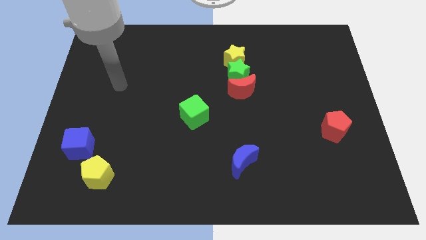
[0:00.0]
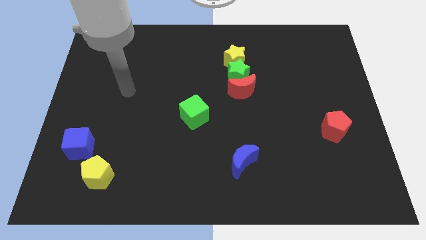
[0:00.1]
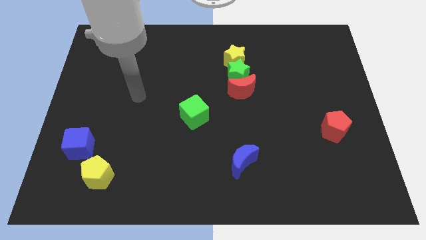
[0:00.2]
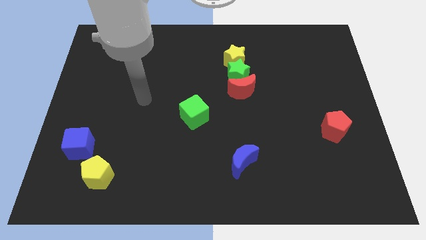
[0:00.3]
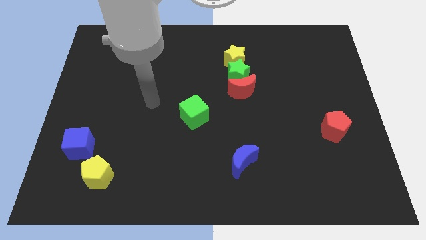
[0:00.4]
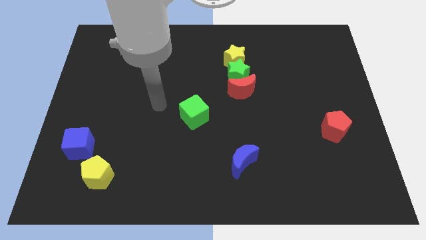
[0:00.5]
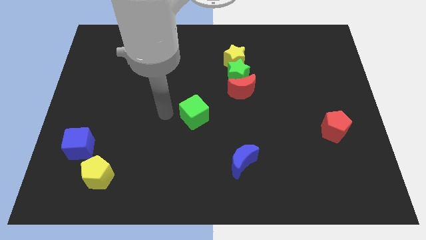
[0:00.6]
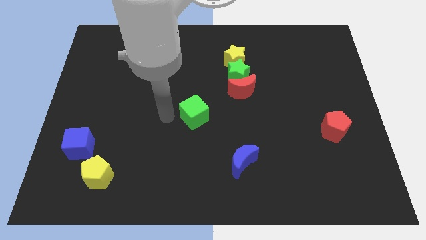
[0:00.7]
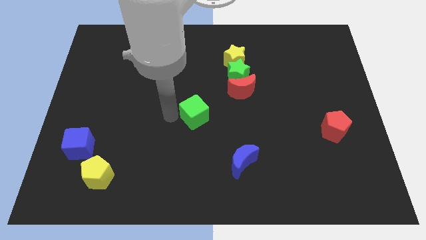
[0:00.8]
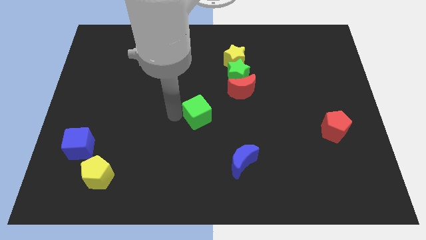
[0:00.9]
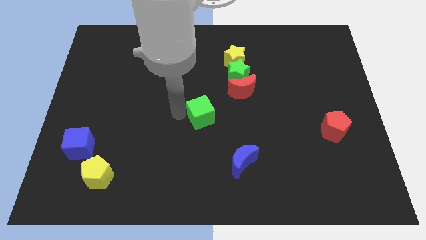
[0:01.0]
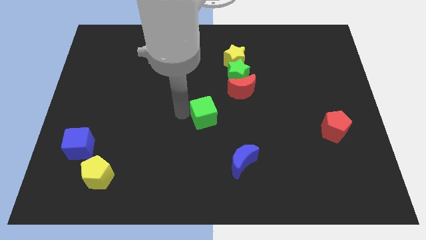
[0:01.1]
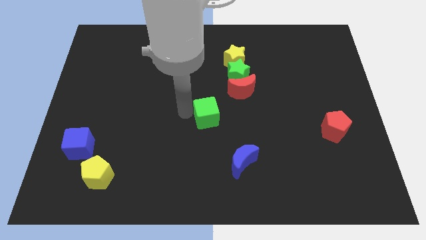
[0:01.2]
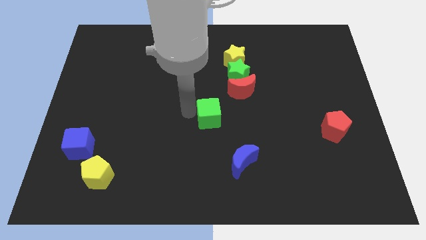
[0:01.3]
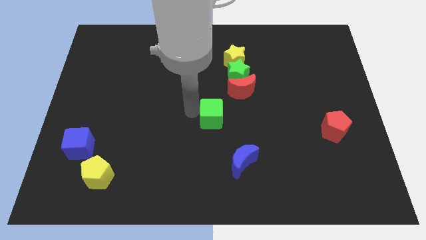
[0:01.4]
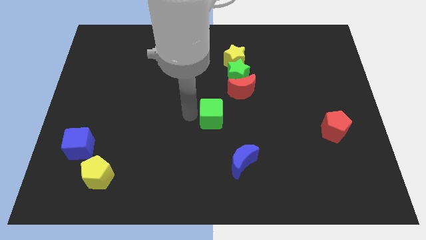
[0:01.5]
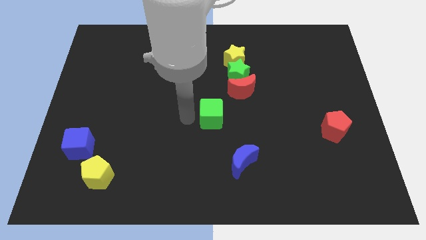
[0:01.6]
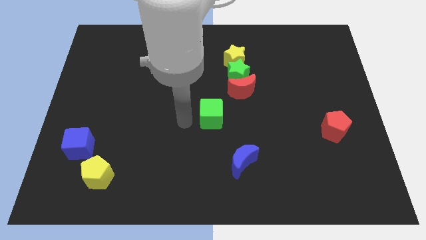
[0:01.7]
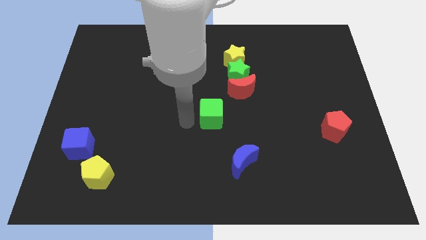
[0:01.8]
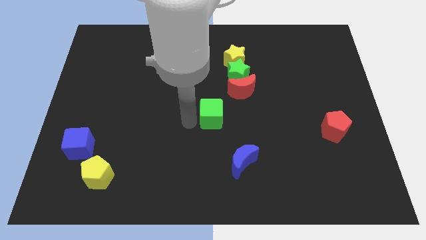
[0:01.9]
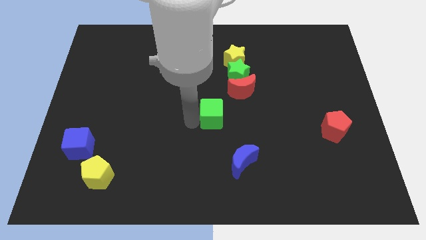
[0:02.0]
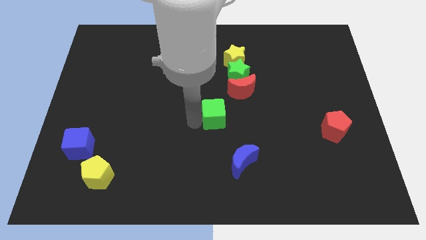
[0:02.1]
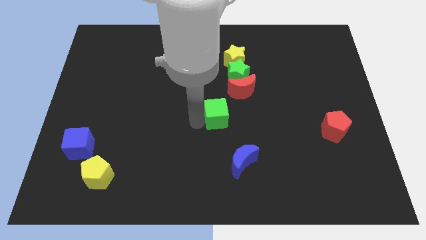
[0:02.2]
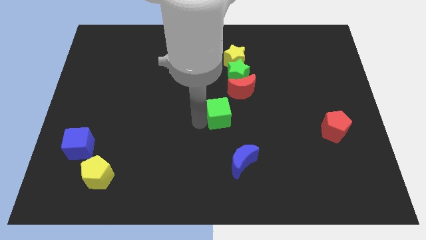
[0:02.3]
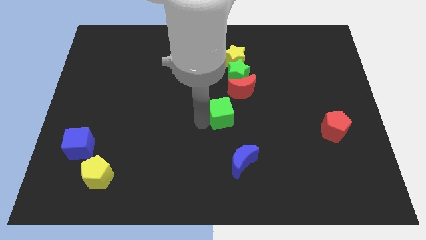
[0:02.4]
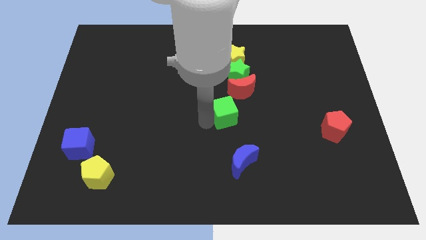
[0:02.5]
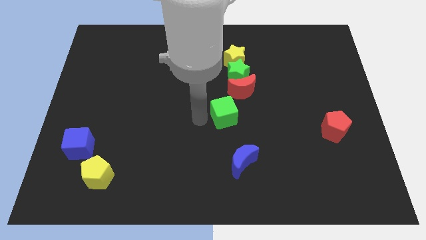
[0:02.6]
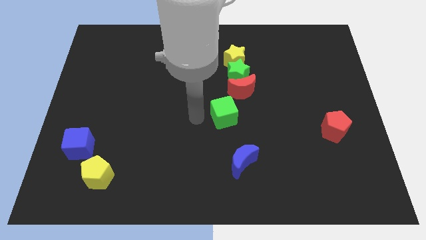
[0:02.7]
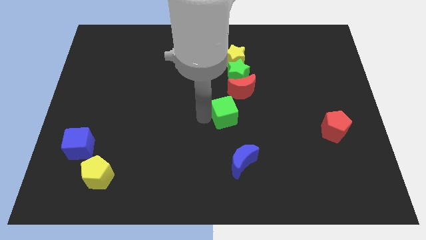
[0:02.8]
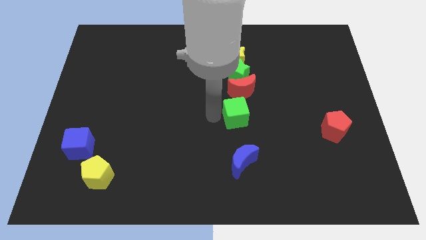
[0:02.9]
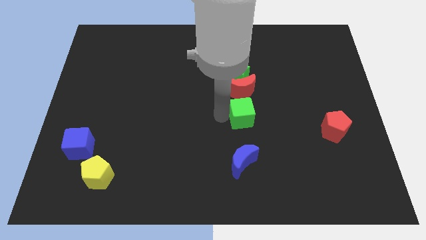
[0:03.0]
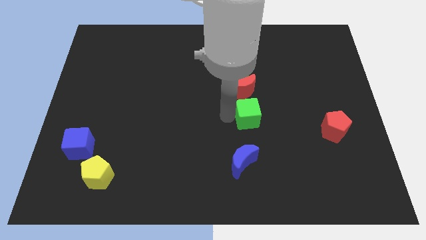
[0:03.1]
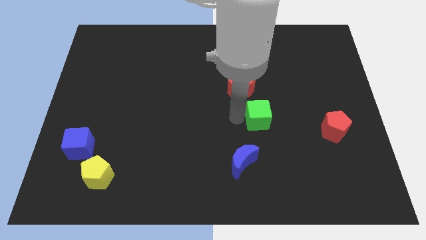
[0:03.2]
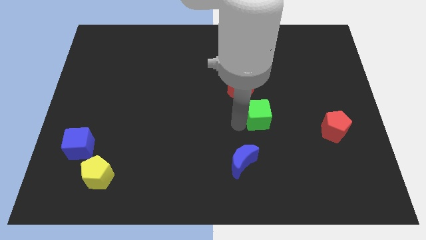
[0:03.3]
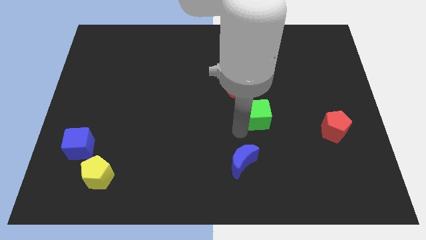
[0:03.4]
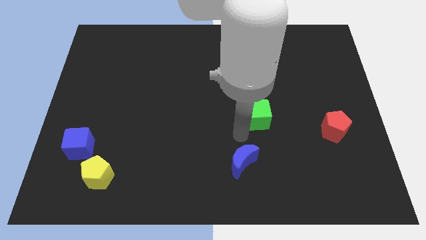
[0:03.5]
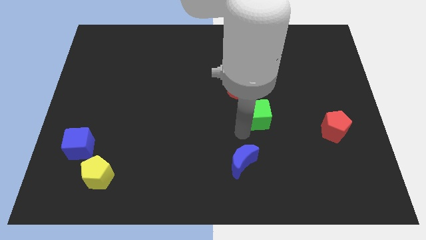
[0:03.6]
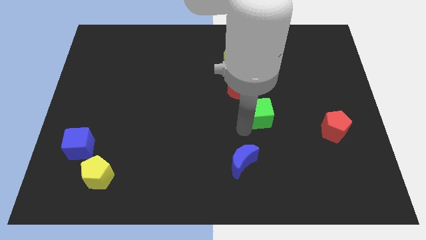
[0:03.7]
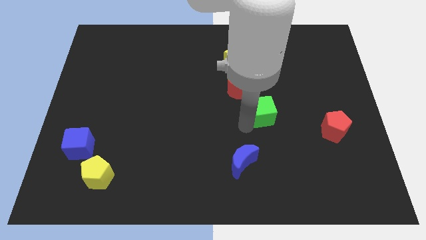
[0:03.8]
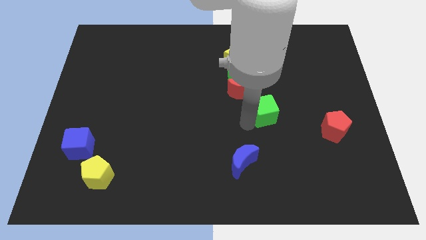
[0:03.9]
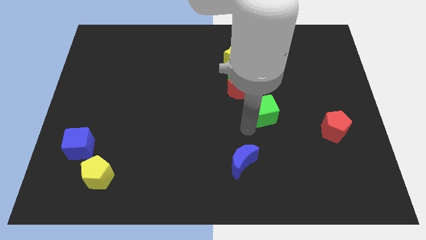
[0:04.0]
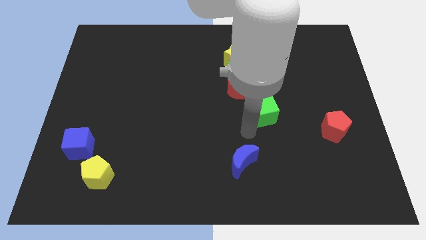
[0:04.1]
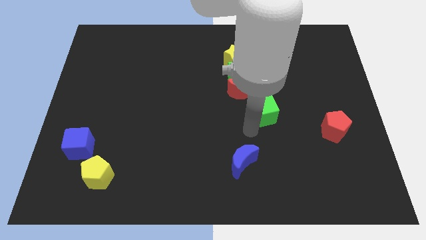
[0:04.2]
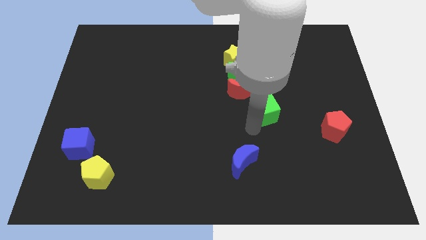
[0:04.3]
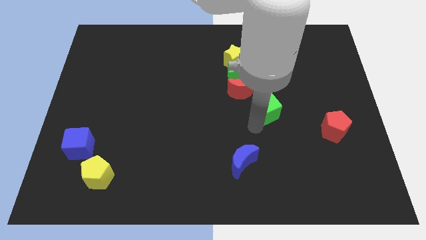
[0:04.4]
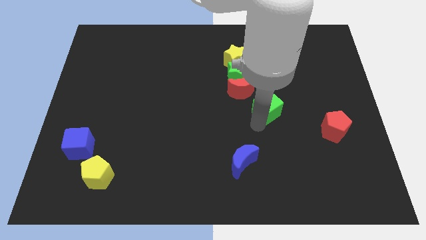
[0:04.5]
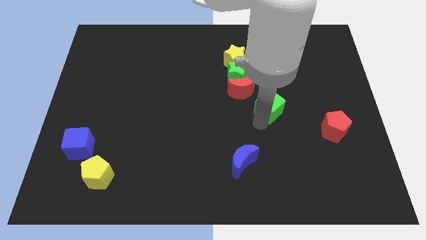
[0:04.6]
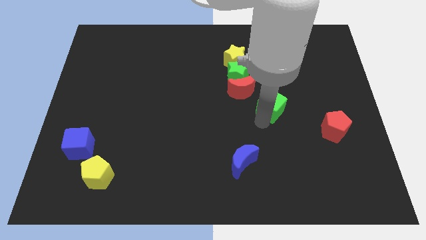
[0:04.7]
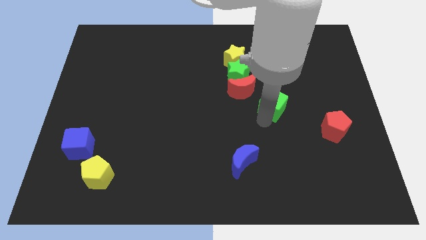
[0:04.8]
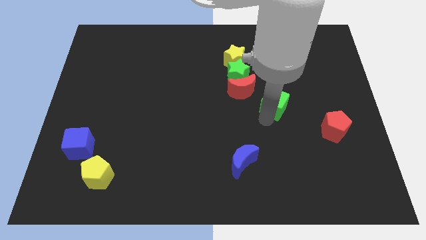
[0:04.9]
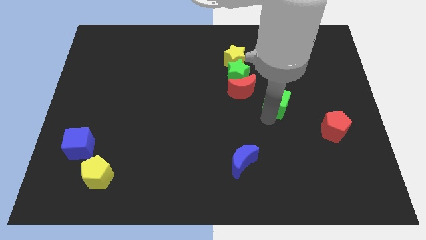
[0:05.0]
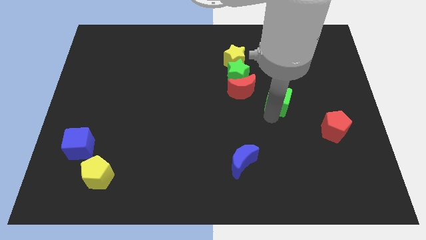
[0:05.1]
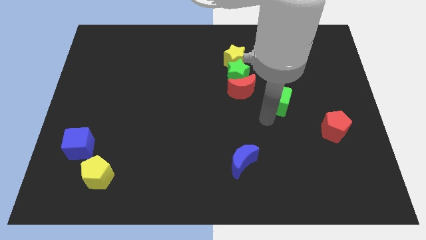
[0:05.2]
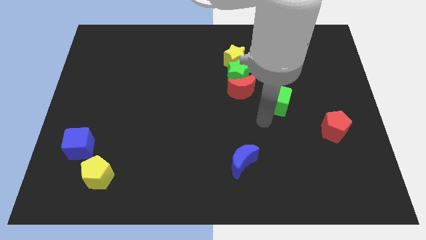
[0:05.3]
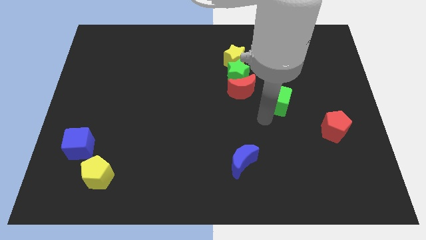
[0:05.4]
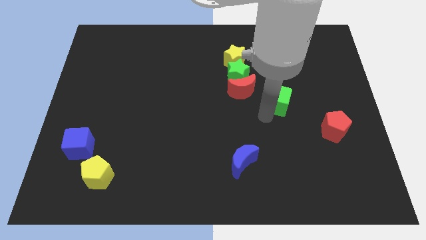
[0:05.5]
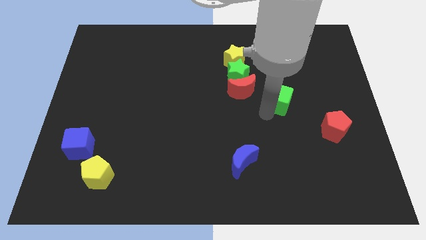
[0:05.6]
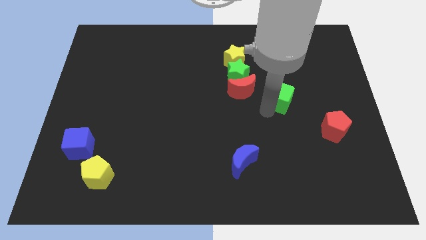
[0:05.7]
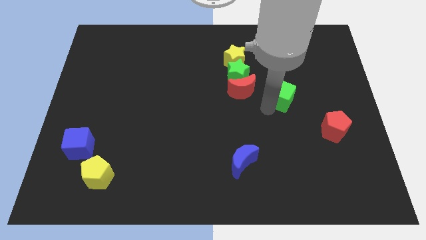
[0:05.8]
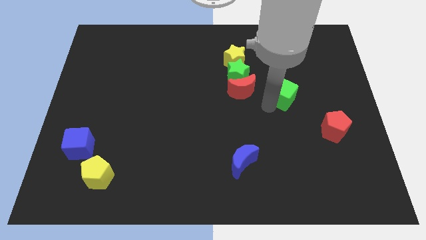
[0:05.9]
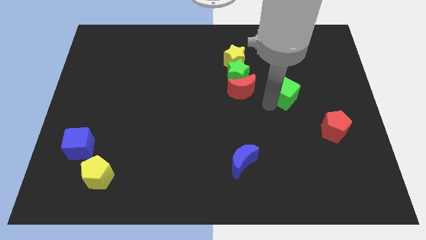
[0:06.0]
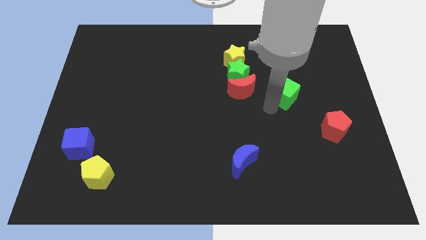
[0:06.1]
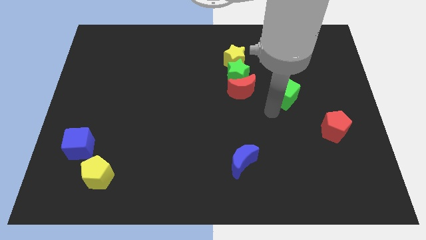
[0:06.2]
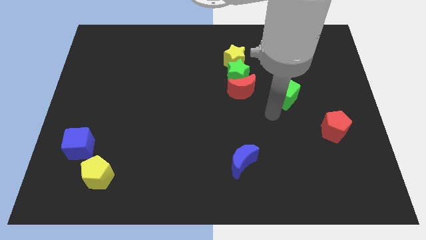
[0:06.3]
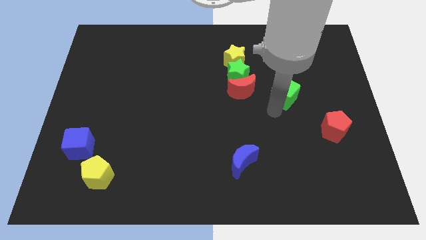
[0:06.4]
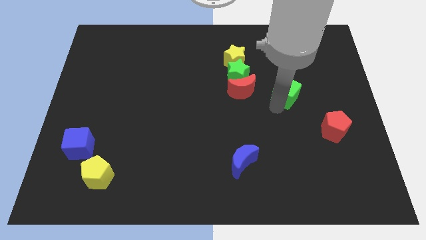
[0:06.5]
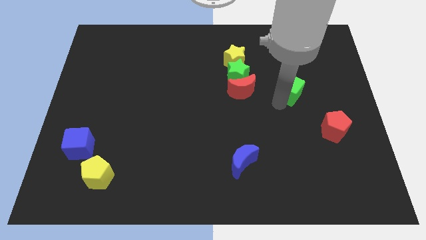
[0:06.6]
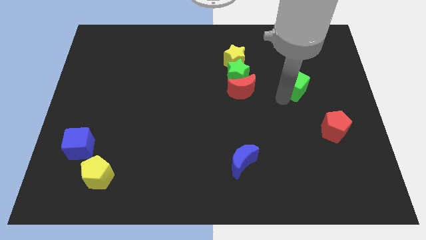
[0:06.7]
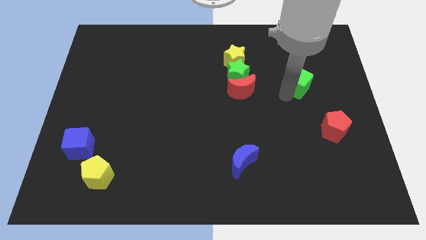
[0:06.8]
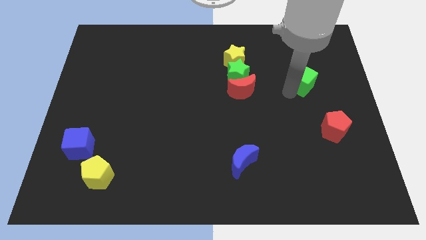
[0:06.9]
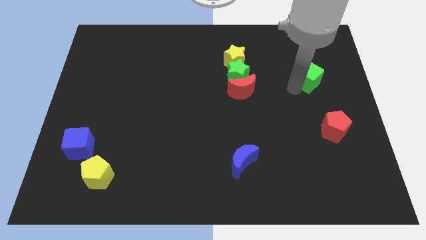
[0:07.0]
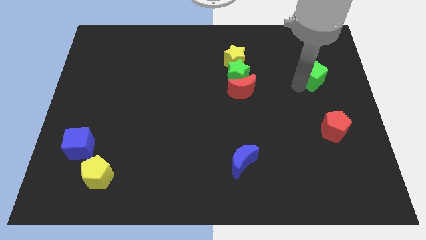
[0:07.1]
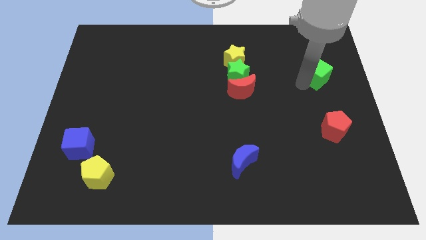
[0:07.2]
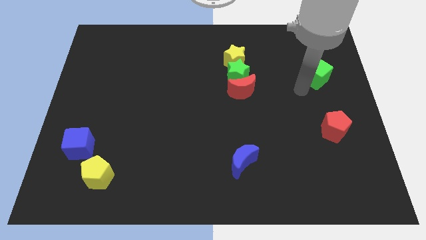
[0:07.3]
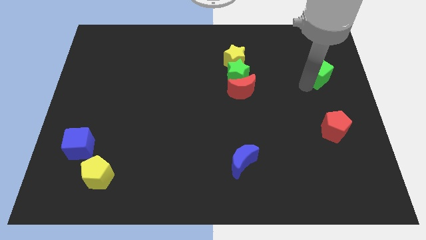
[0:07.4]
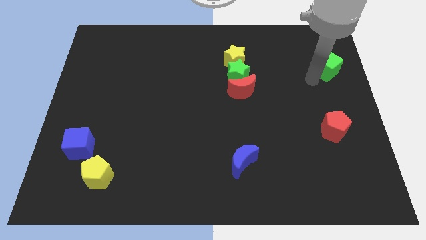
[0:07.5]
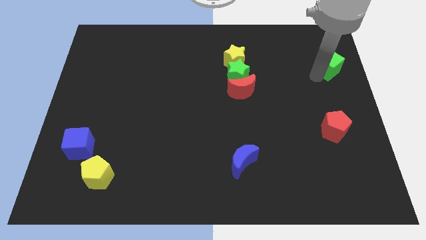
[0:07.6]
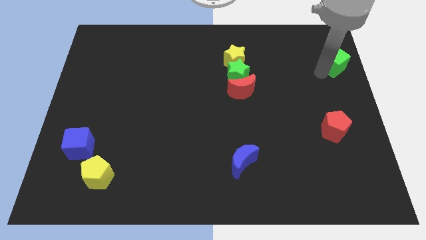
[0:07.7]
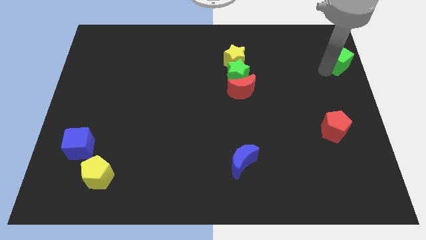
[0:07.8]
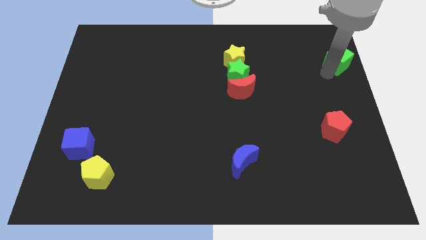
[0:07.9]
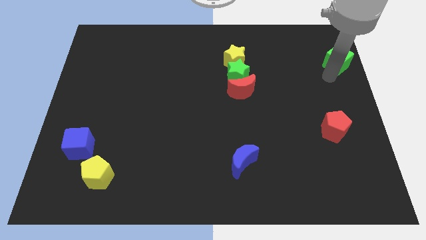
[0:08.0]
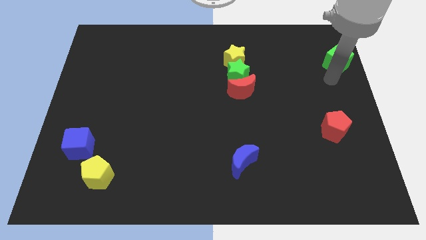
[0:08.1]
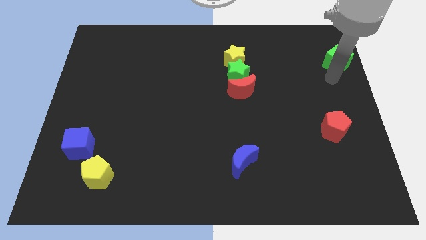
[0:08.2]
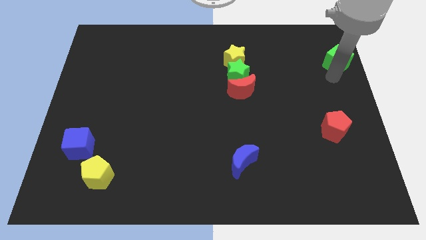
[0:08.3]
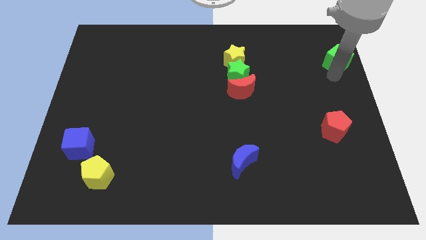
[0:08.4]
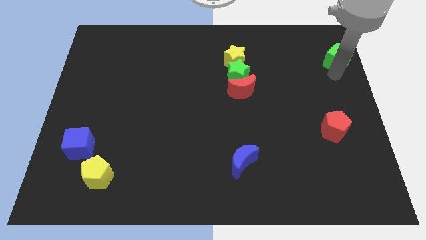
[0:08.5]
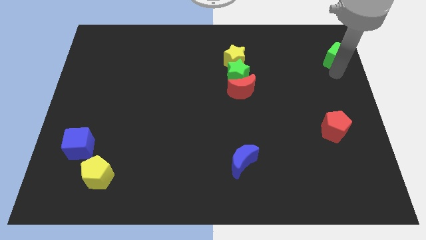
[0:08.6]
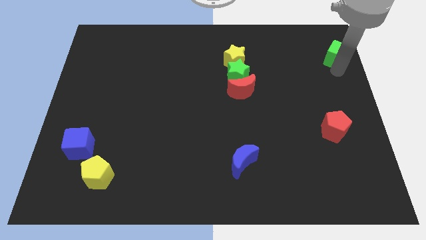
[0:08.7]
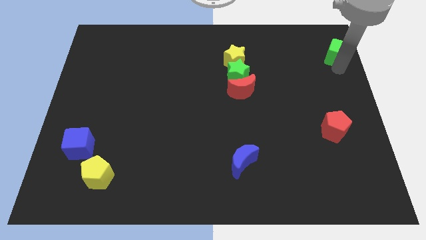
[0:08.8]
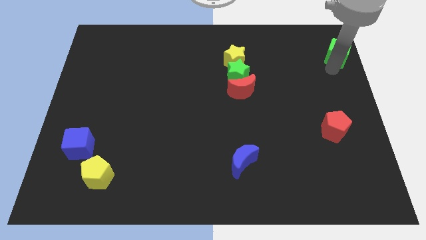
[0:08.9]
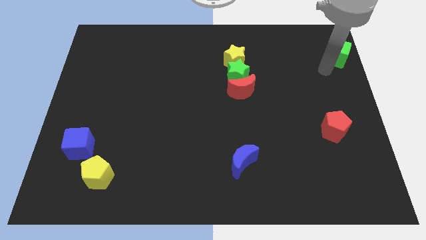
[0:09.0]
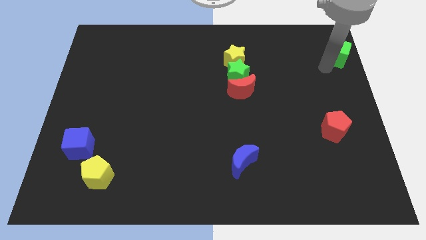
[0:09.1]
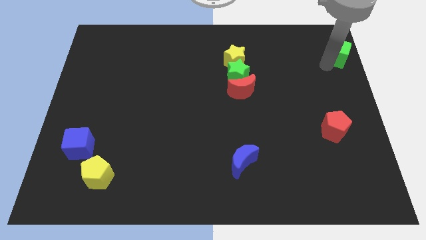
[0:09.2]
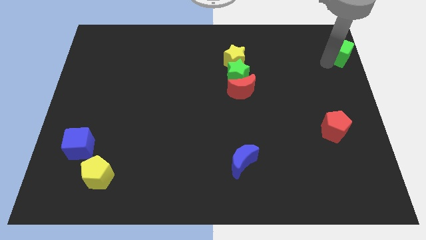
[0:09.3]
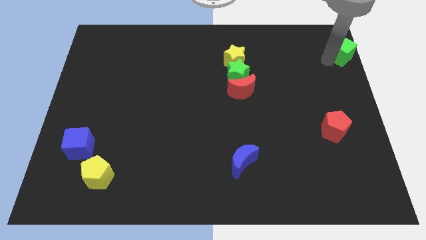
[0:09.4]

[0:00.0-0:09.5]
slide the green cube to the upper right corner
